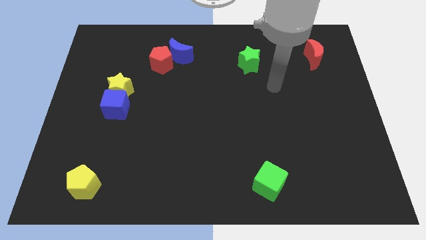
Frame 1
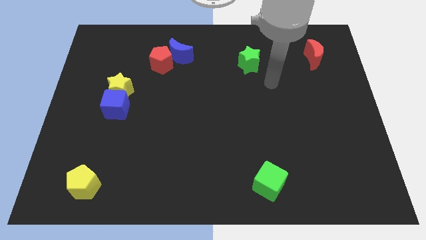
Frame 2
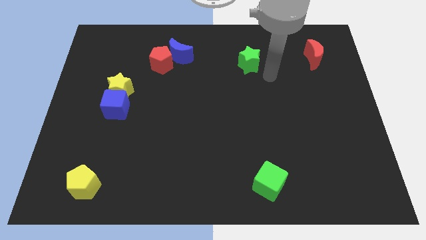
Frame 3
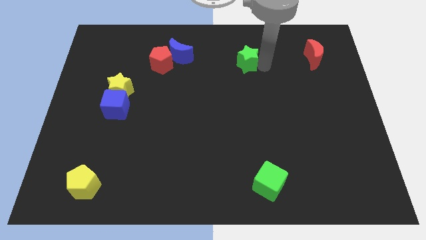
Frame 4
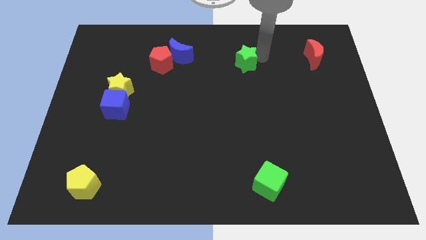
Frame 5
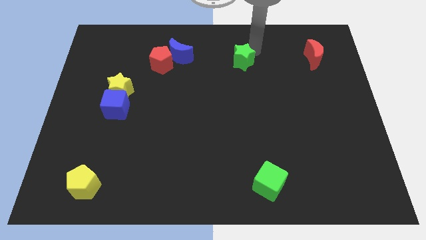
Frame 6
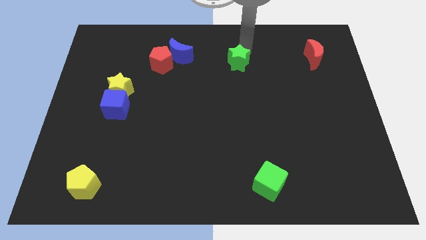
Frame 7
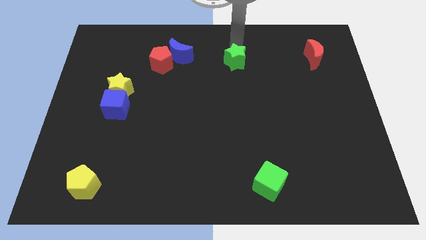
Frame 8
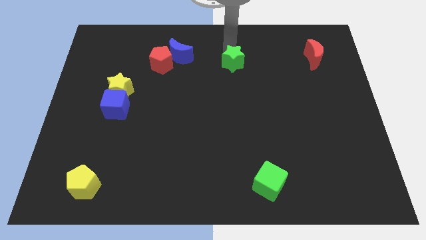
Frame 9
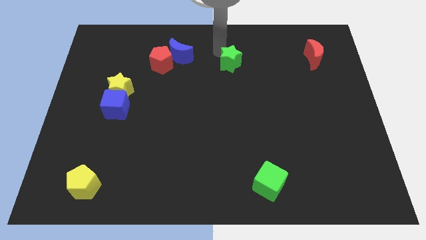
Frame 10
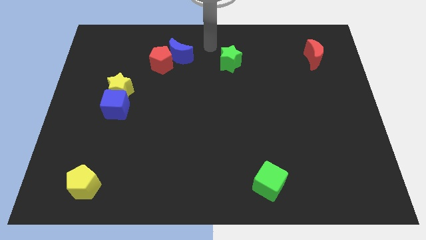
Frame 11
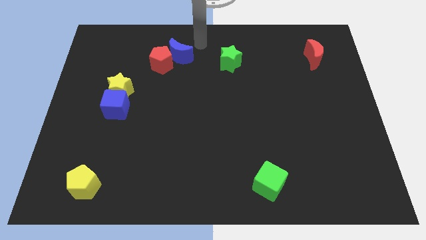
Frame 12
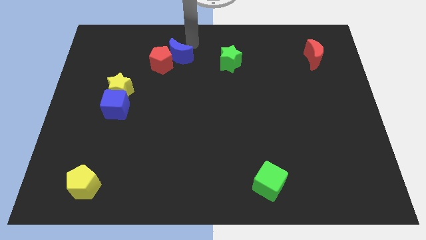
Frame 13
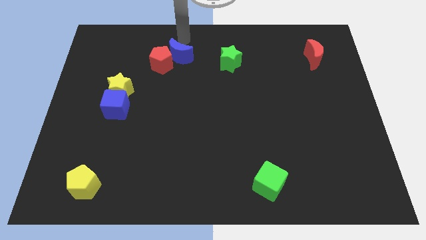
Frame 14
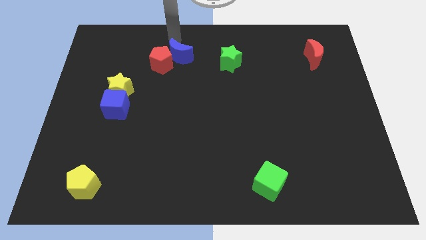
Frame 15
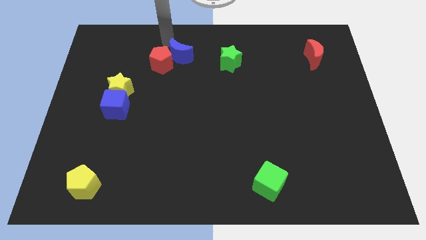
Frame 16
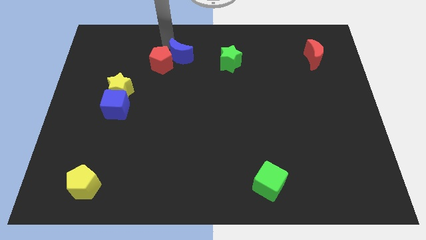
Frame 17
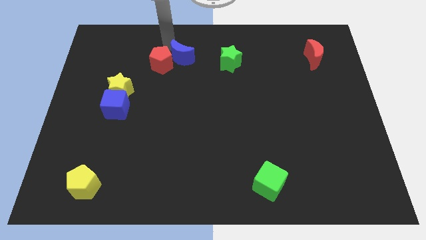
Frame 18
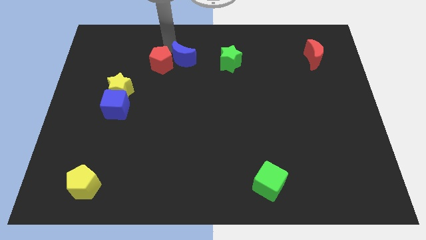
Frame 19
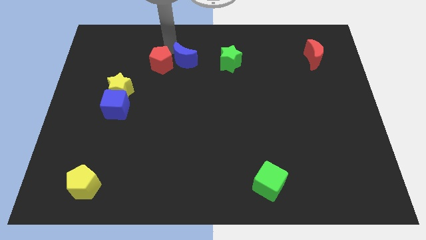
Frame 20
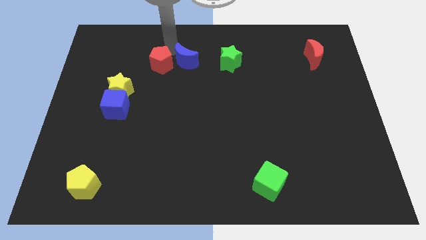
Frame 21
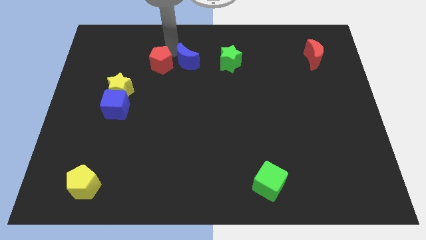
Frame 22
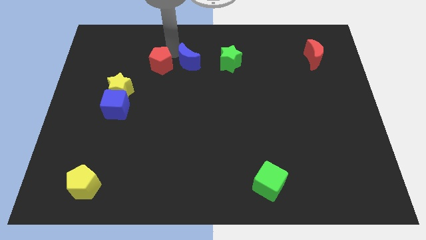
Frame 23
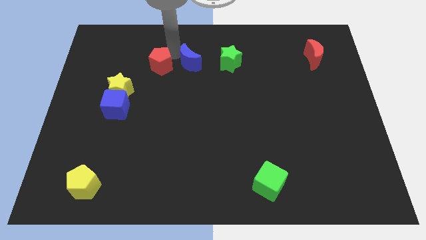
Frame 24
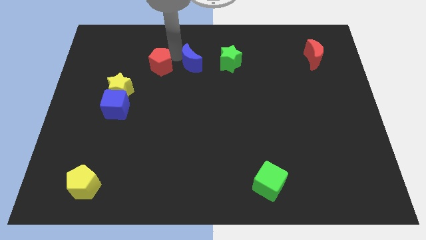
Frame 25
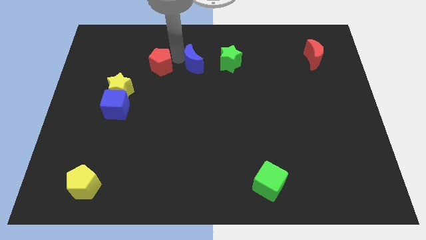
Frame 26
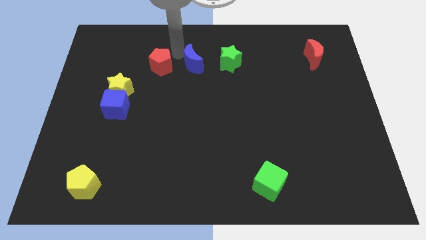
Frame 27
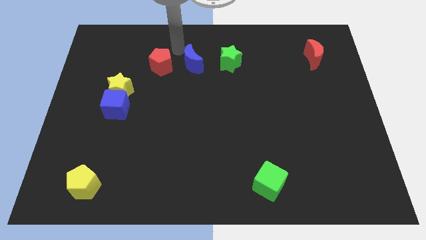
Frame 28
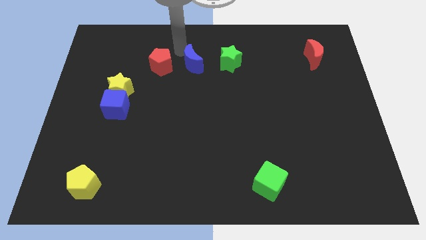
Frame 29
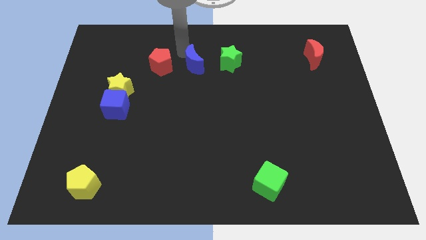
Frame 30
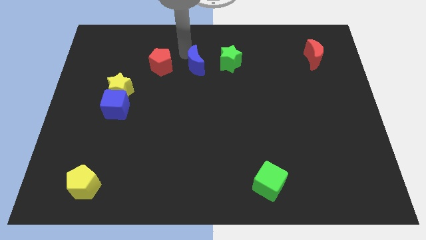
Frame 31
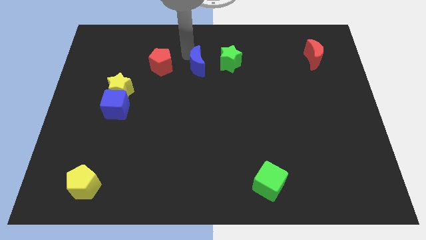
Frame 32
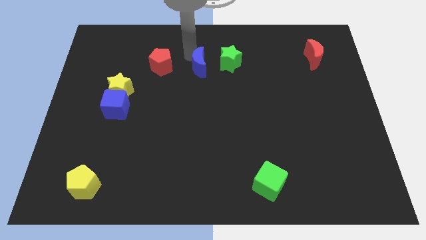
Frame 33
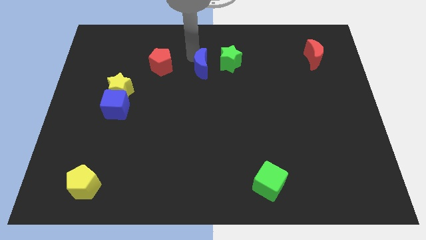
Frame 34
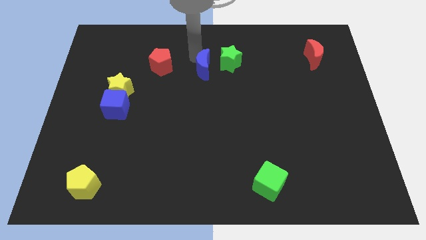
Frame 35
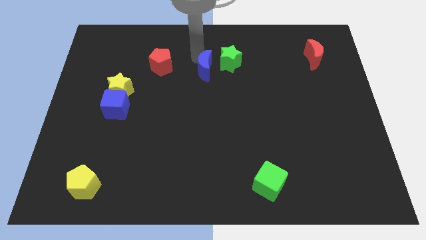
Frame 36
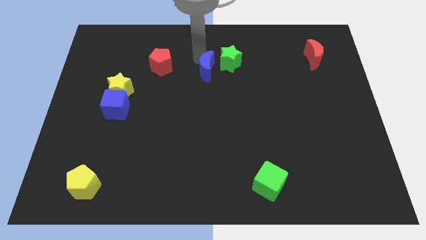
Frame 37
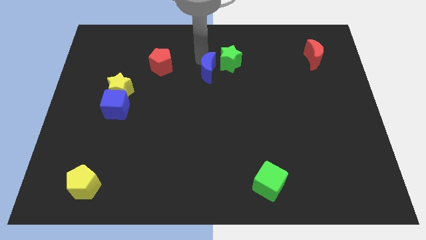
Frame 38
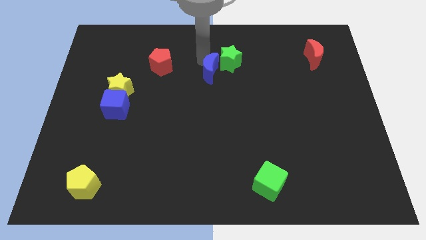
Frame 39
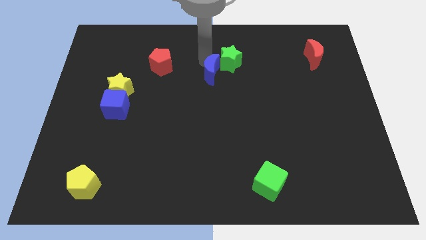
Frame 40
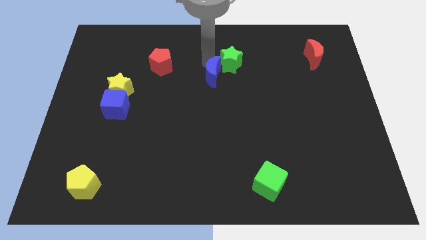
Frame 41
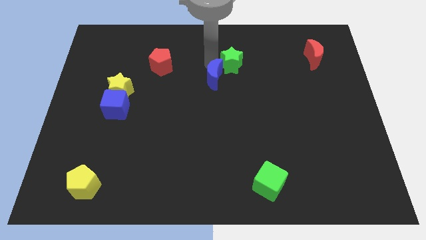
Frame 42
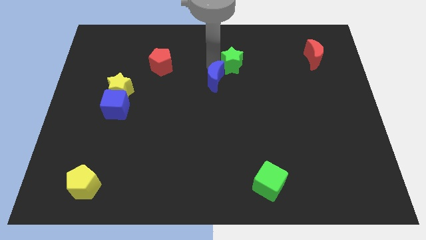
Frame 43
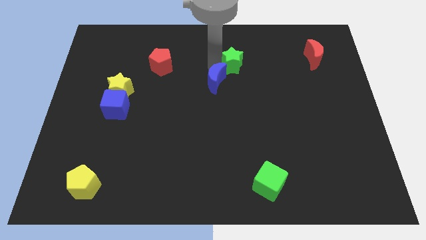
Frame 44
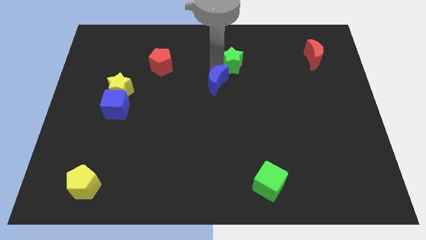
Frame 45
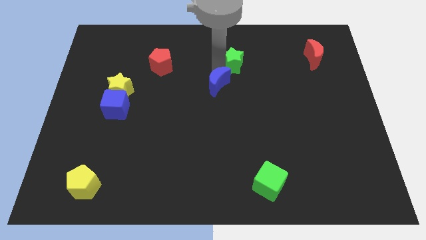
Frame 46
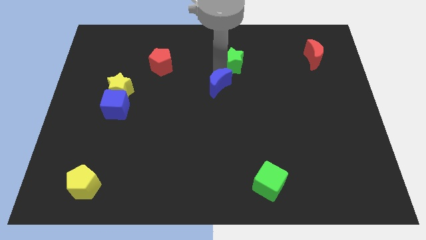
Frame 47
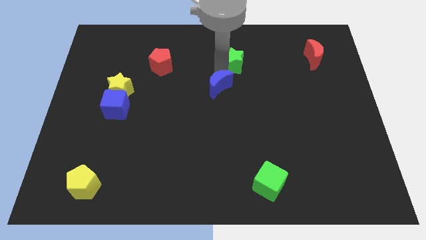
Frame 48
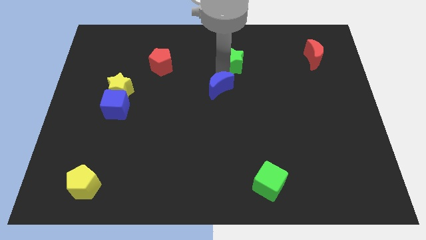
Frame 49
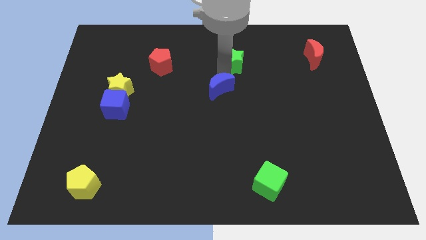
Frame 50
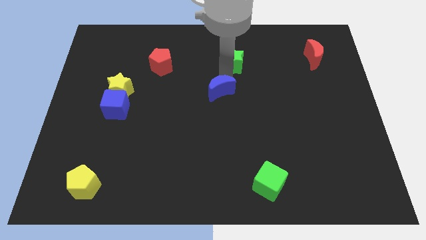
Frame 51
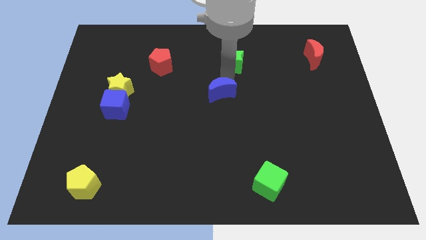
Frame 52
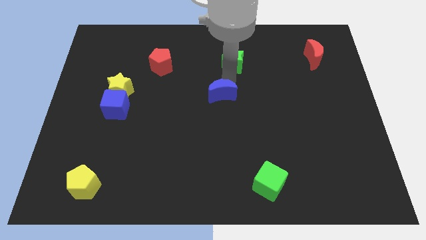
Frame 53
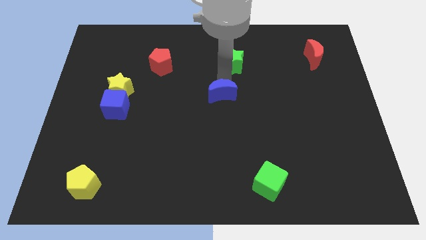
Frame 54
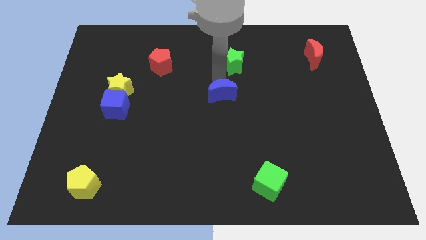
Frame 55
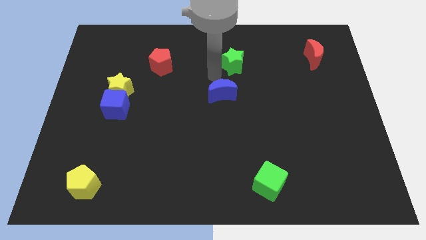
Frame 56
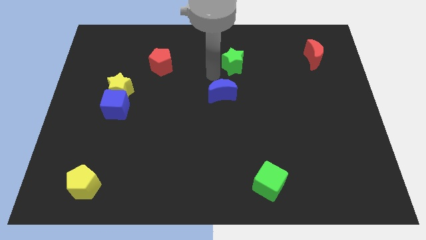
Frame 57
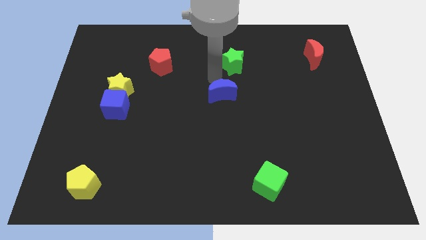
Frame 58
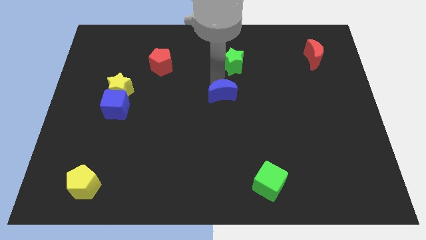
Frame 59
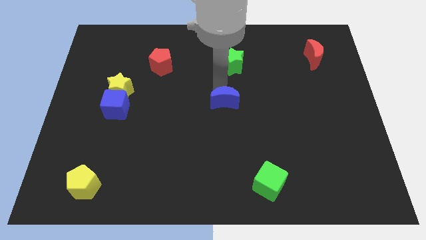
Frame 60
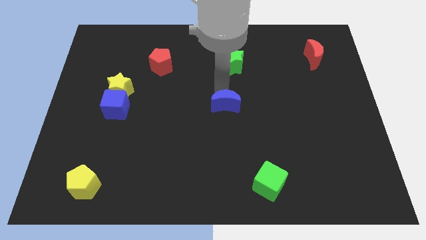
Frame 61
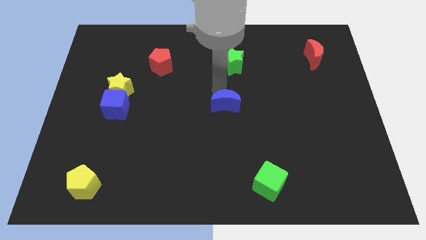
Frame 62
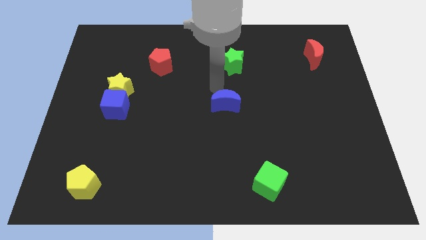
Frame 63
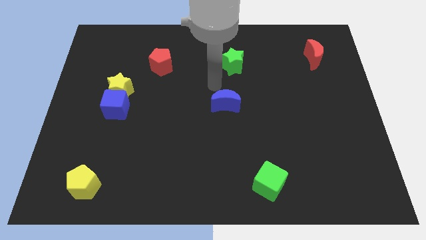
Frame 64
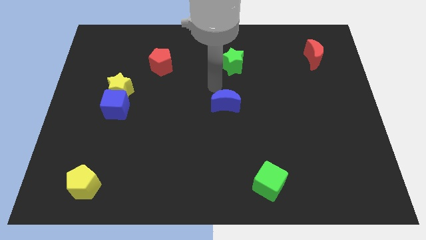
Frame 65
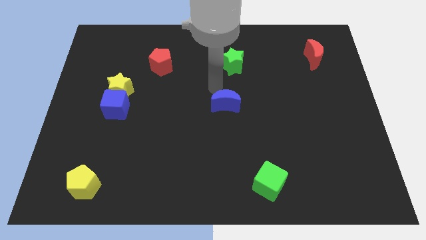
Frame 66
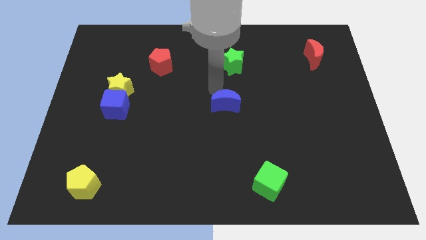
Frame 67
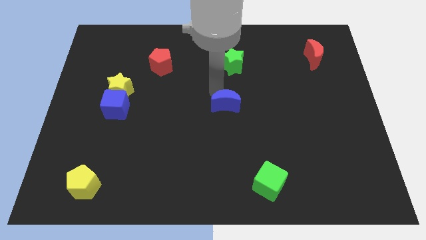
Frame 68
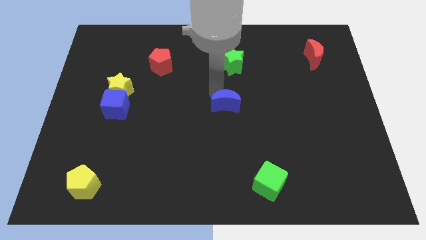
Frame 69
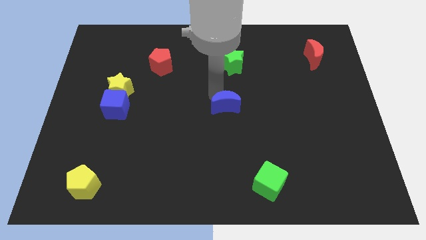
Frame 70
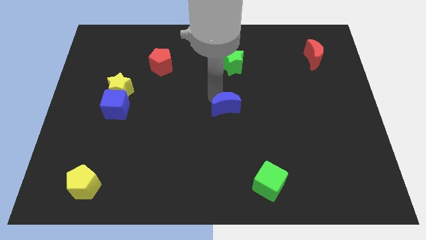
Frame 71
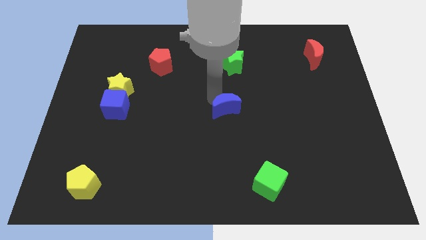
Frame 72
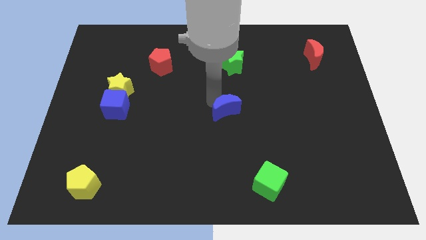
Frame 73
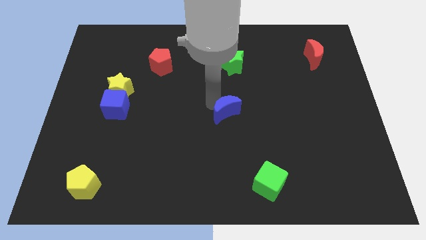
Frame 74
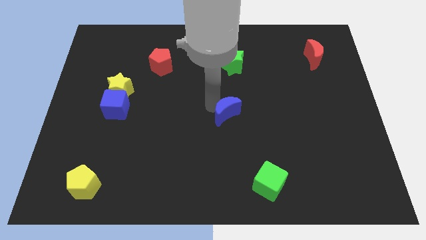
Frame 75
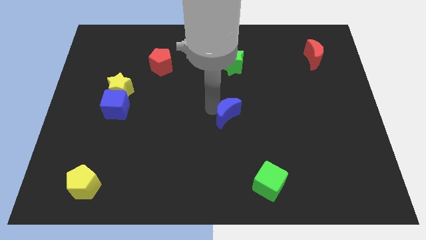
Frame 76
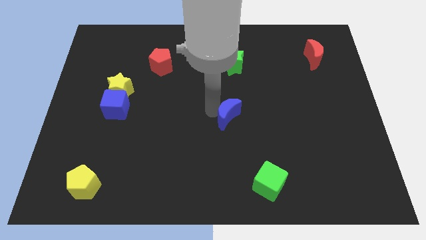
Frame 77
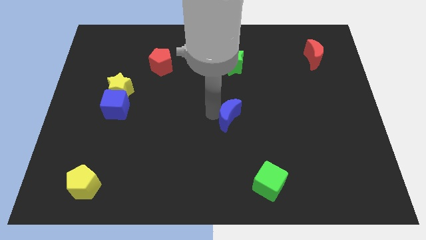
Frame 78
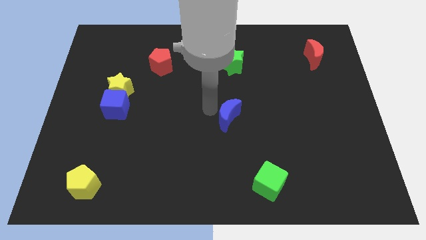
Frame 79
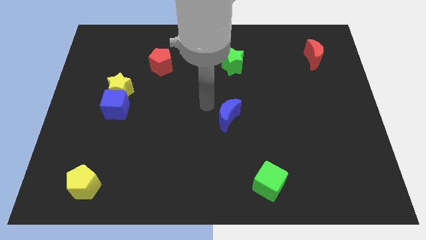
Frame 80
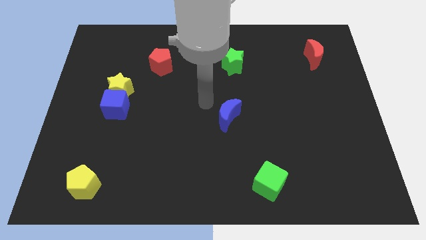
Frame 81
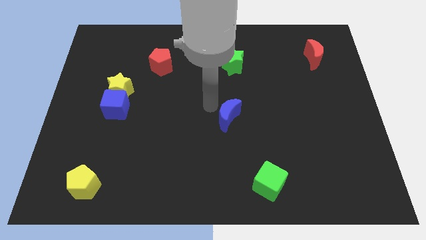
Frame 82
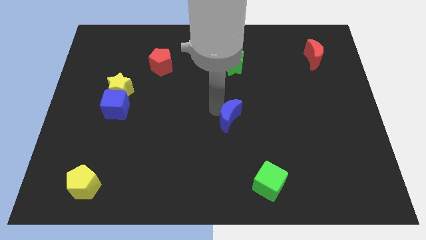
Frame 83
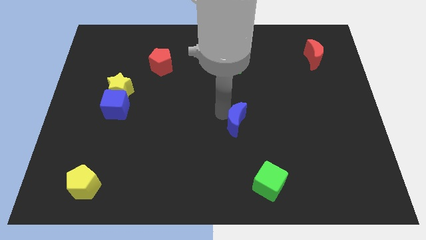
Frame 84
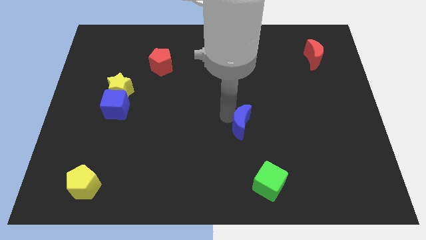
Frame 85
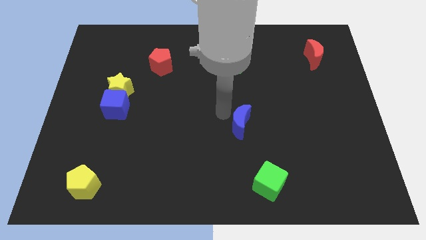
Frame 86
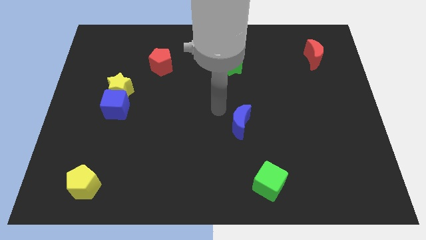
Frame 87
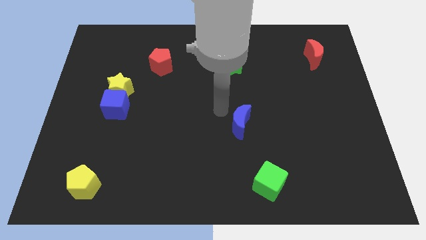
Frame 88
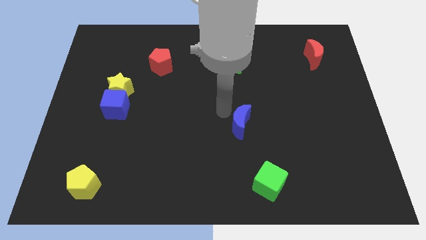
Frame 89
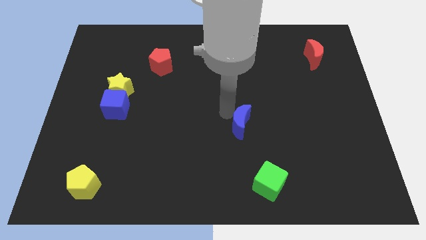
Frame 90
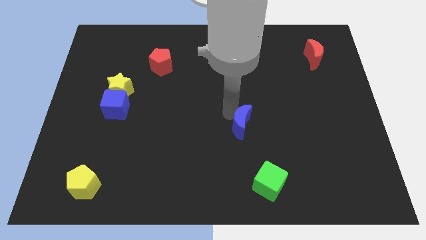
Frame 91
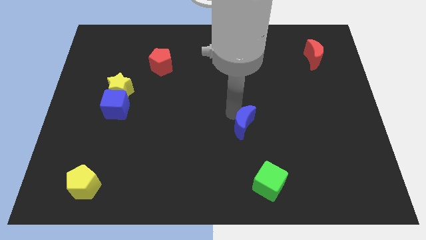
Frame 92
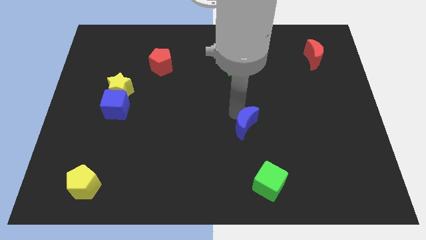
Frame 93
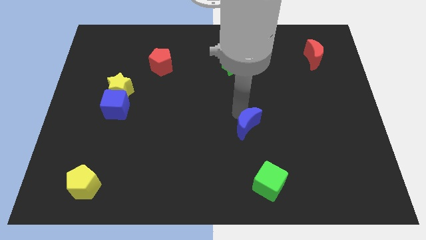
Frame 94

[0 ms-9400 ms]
move the blue moon above the green cube
